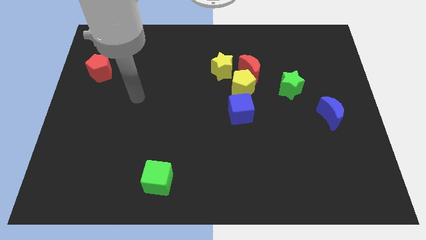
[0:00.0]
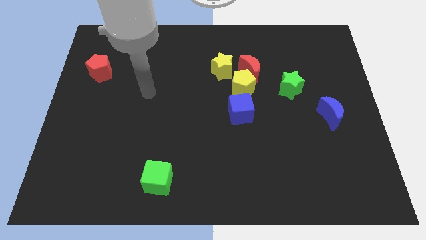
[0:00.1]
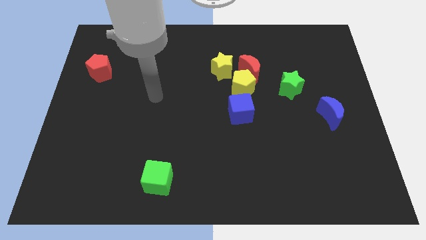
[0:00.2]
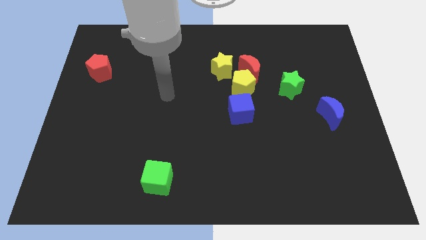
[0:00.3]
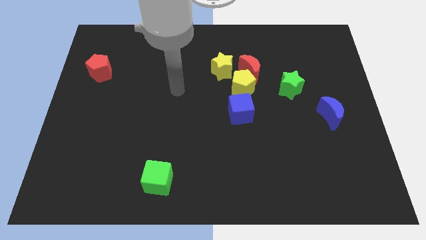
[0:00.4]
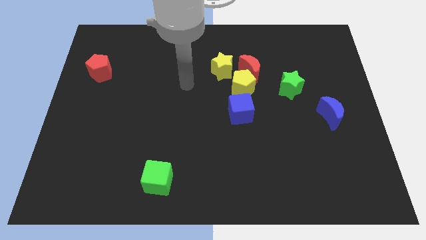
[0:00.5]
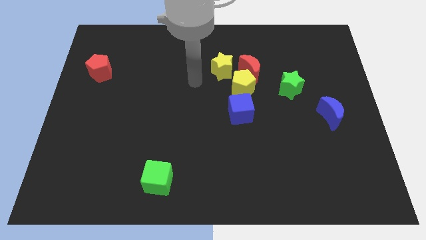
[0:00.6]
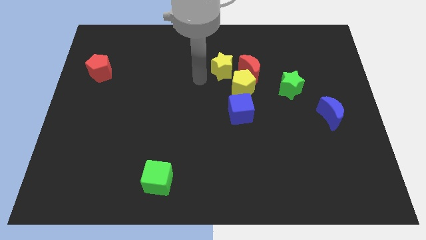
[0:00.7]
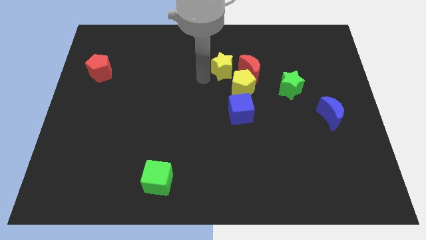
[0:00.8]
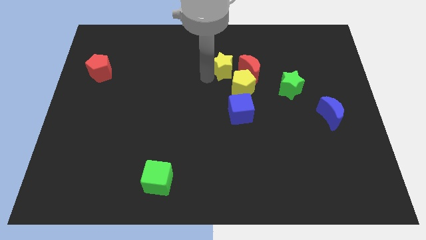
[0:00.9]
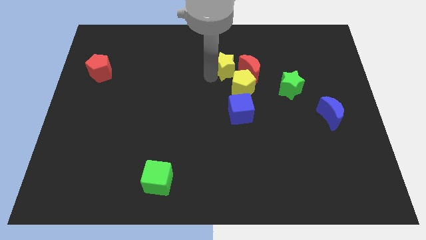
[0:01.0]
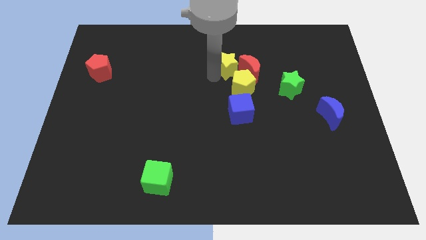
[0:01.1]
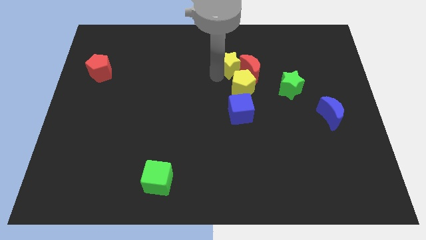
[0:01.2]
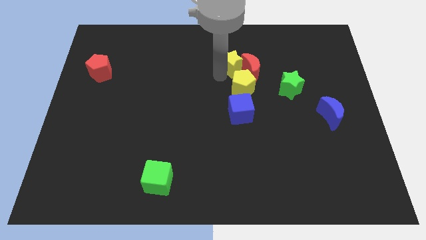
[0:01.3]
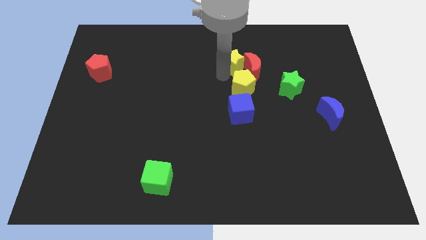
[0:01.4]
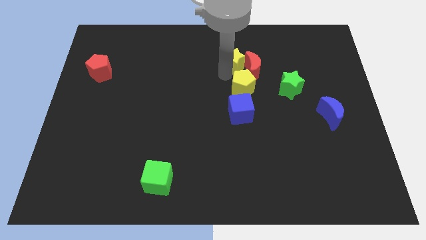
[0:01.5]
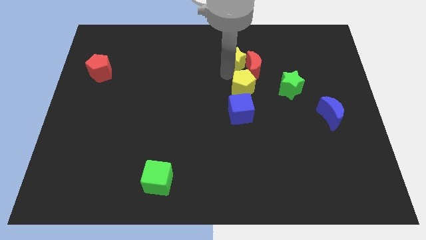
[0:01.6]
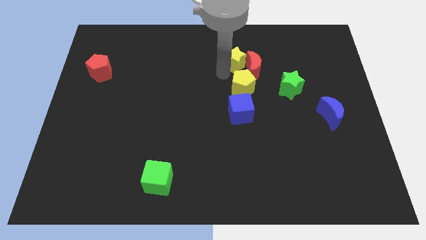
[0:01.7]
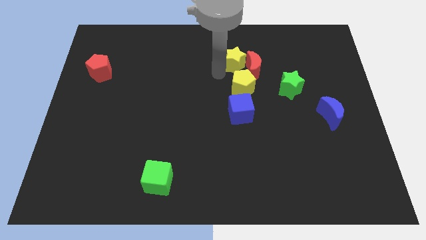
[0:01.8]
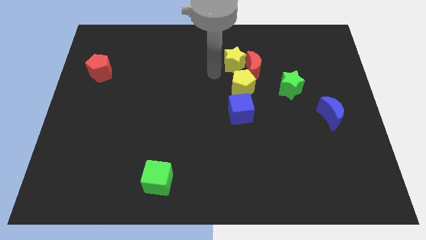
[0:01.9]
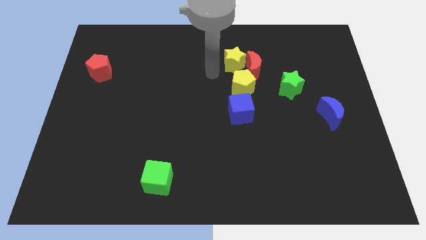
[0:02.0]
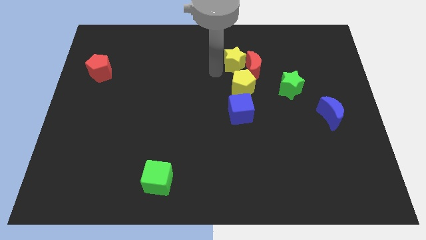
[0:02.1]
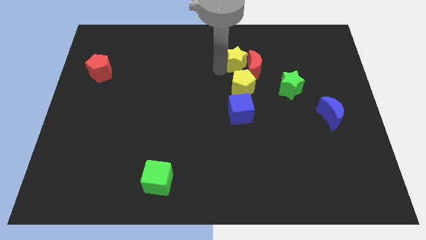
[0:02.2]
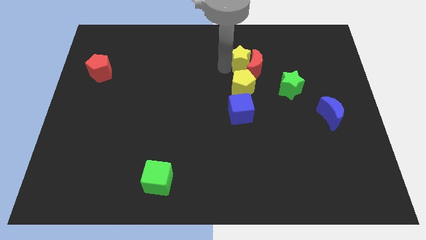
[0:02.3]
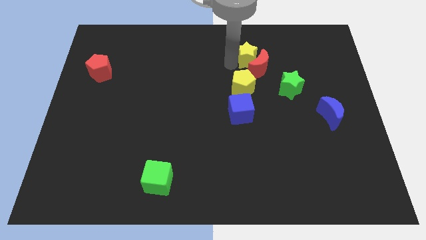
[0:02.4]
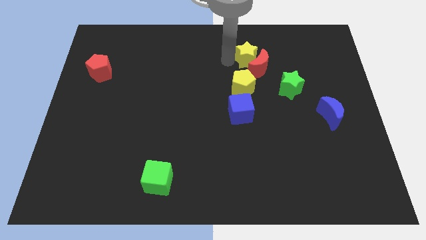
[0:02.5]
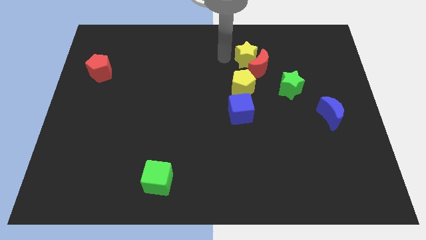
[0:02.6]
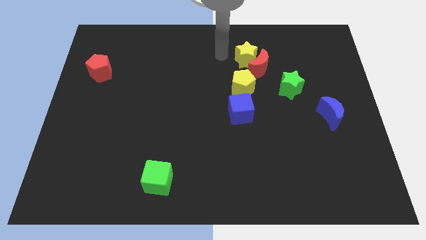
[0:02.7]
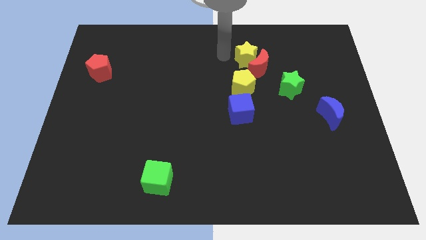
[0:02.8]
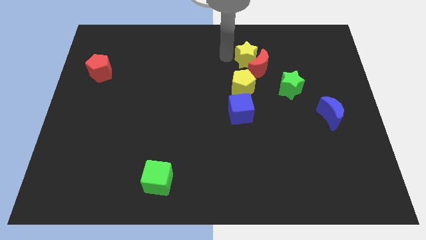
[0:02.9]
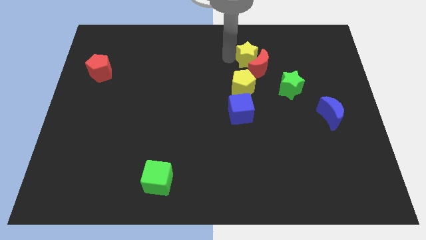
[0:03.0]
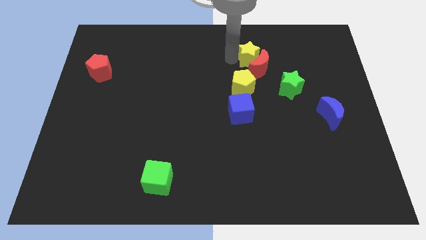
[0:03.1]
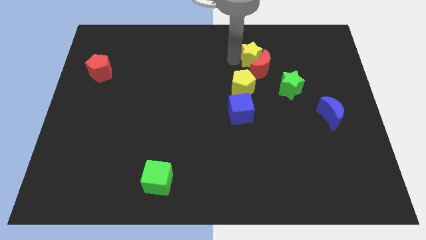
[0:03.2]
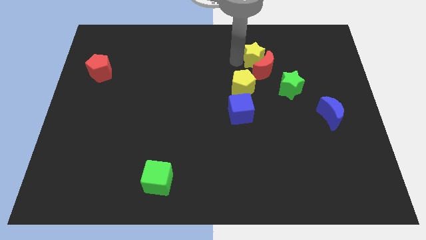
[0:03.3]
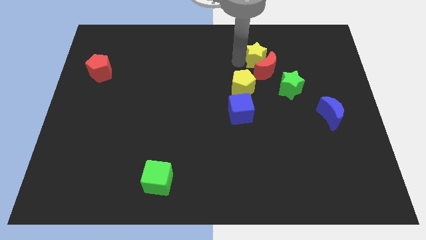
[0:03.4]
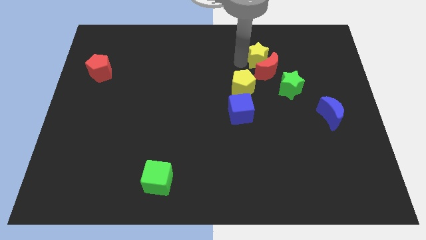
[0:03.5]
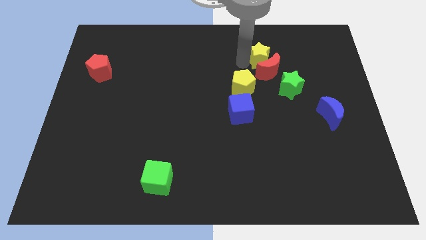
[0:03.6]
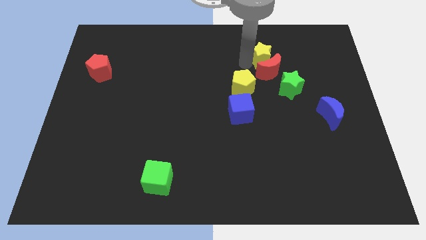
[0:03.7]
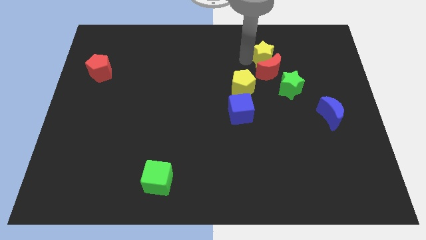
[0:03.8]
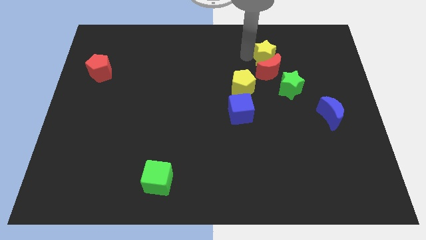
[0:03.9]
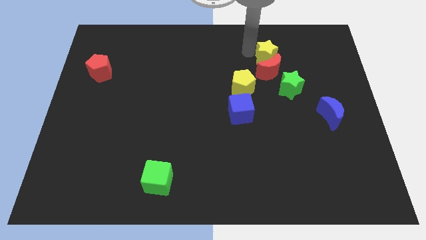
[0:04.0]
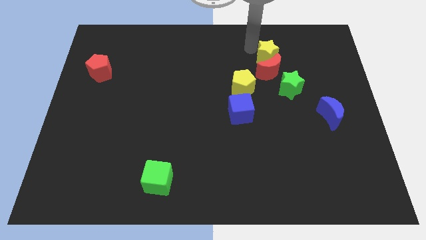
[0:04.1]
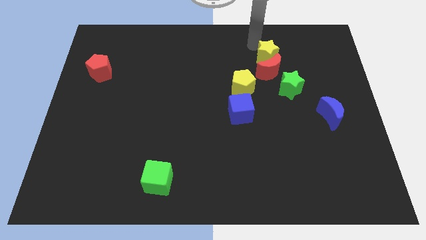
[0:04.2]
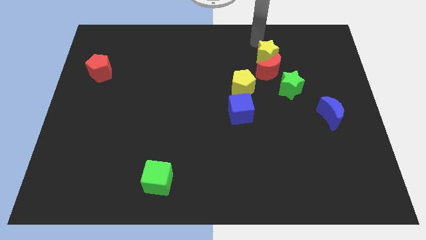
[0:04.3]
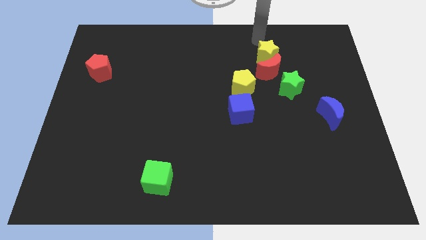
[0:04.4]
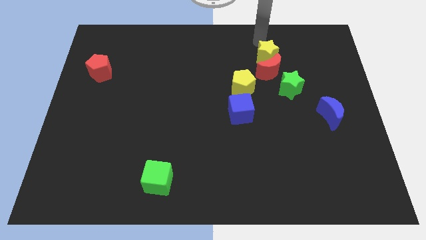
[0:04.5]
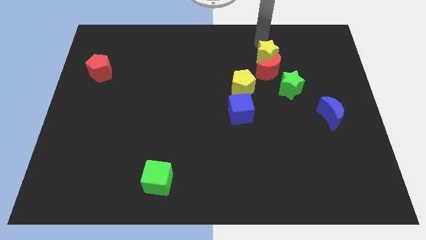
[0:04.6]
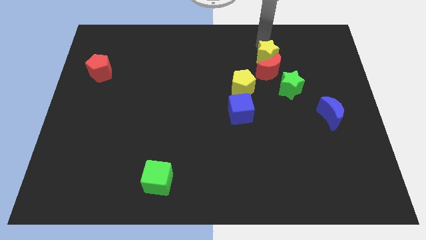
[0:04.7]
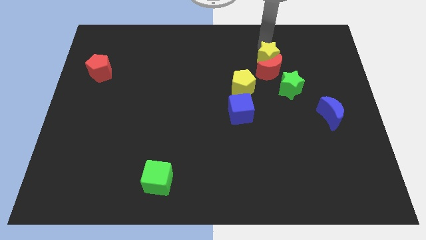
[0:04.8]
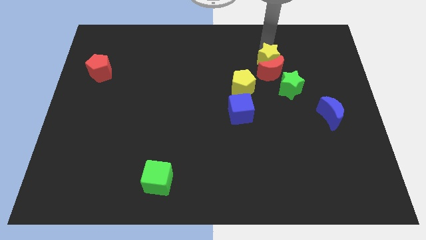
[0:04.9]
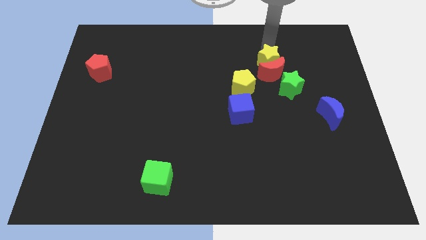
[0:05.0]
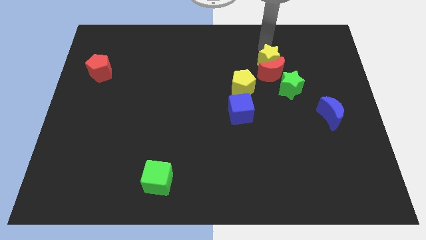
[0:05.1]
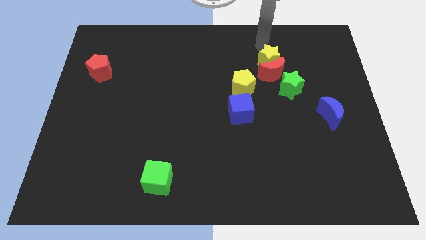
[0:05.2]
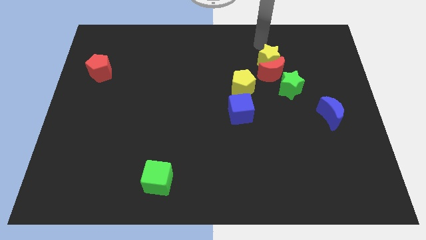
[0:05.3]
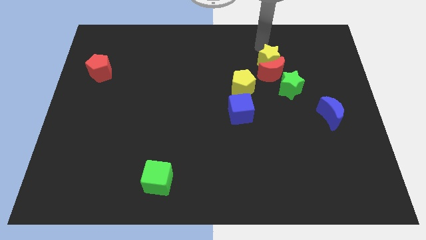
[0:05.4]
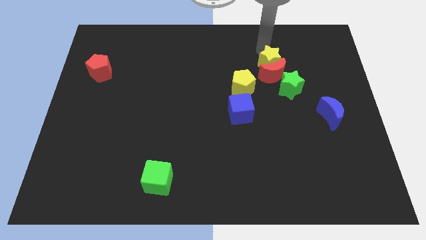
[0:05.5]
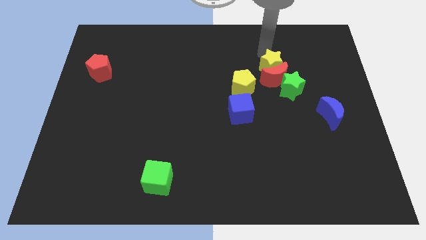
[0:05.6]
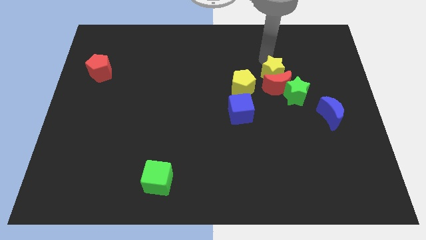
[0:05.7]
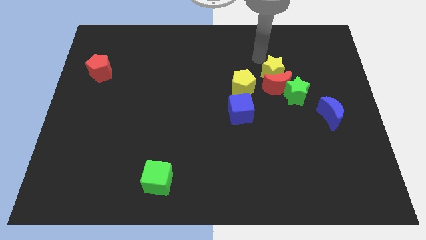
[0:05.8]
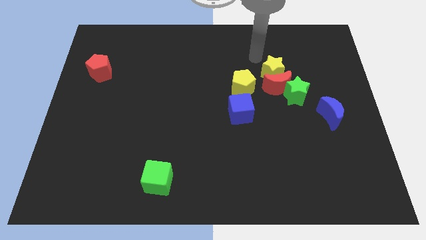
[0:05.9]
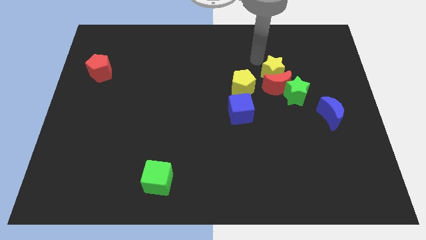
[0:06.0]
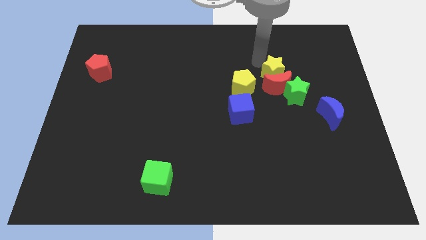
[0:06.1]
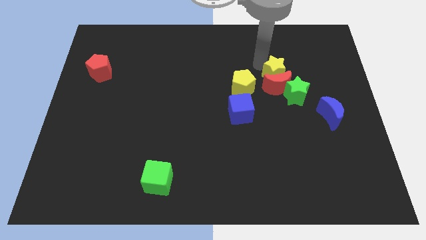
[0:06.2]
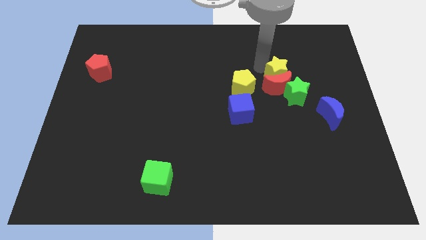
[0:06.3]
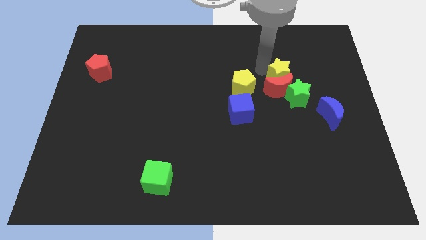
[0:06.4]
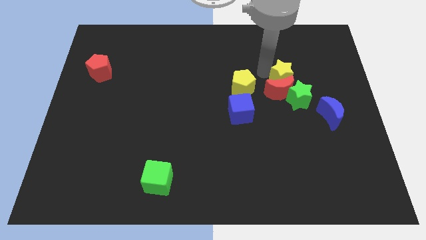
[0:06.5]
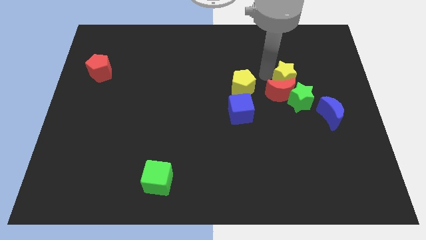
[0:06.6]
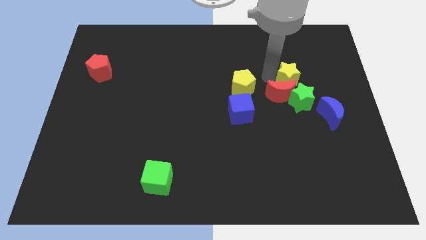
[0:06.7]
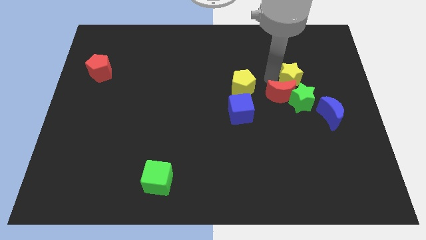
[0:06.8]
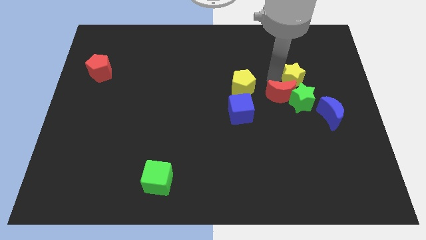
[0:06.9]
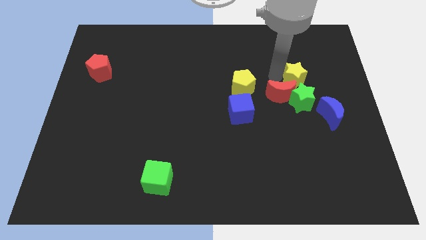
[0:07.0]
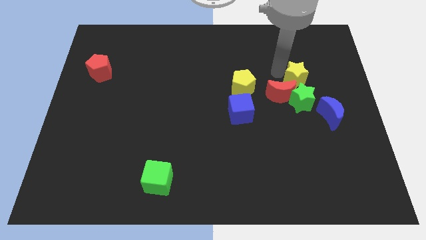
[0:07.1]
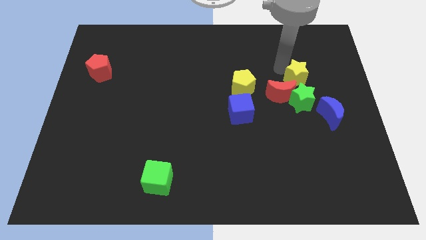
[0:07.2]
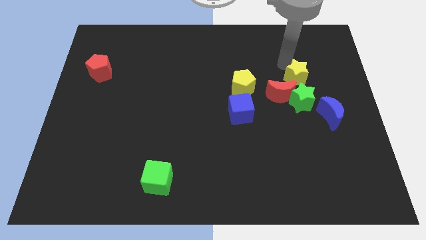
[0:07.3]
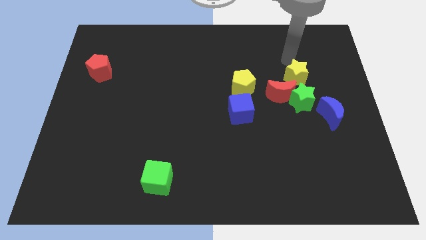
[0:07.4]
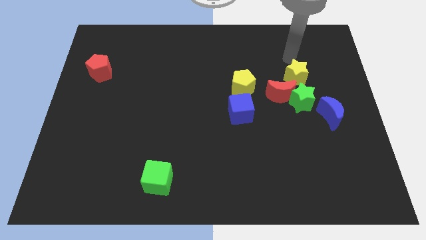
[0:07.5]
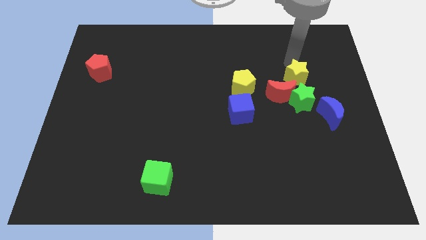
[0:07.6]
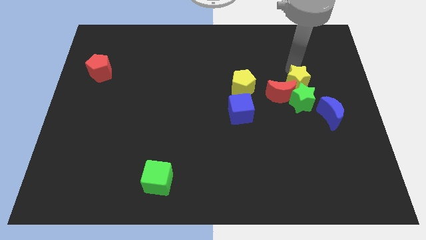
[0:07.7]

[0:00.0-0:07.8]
move the yellow star next to the green star
